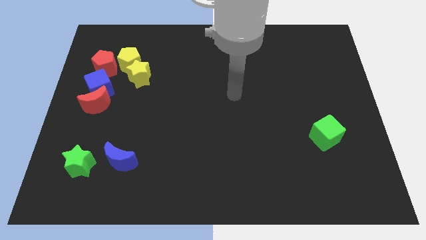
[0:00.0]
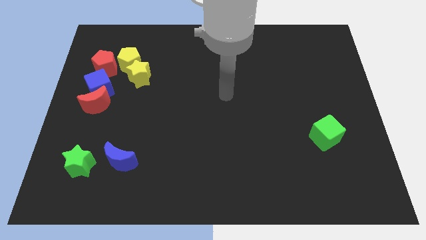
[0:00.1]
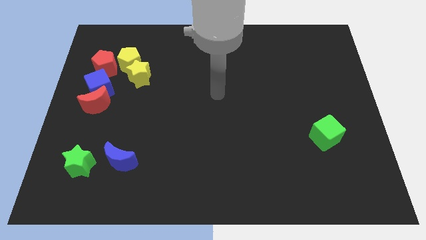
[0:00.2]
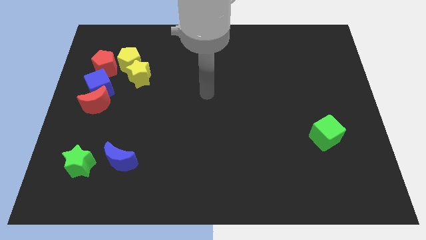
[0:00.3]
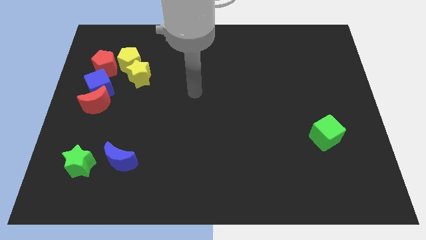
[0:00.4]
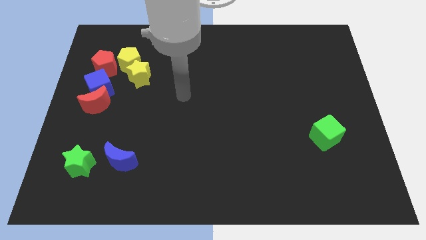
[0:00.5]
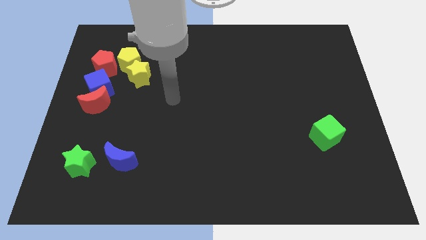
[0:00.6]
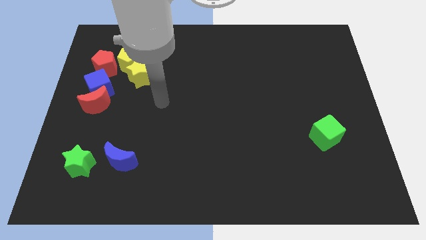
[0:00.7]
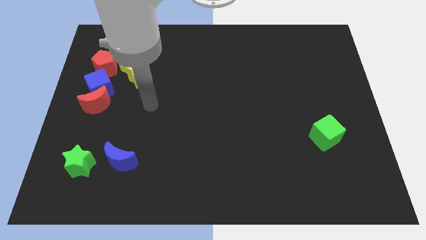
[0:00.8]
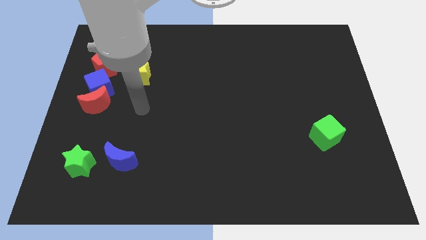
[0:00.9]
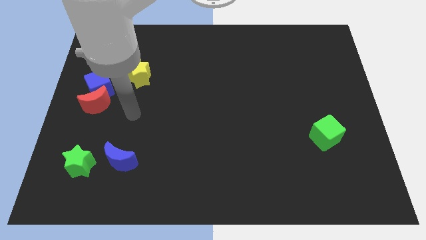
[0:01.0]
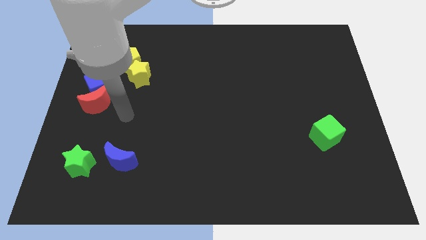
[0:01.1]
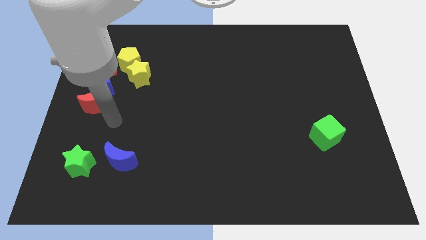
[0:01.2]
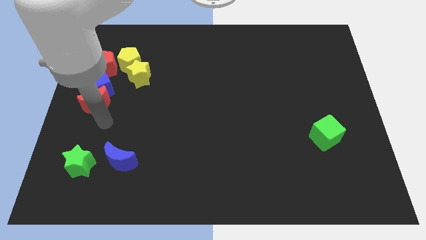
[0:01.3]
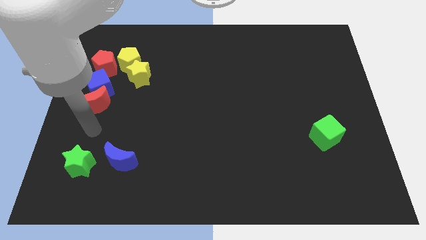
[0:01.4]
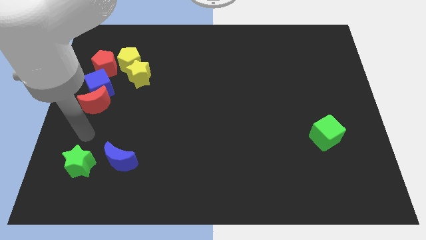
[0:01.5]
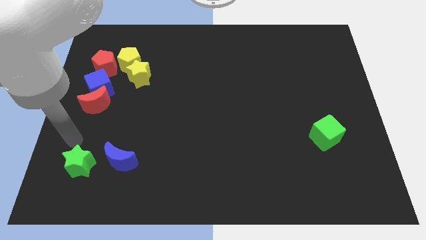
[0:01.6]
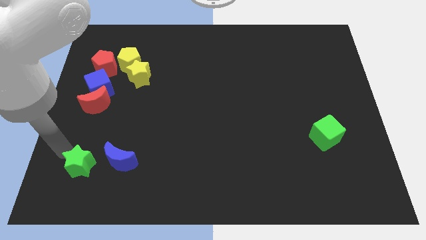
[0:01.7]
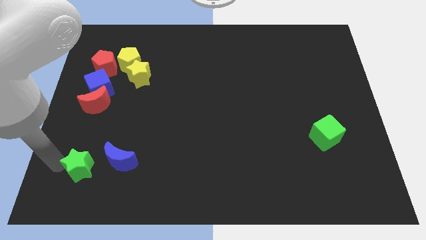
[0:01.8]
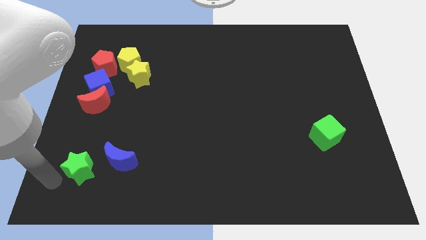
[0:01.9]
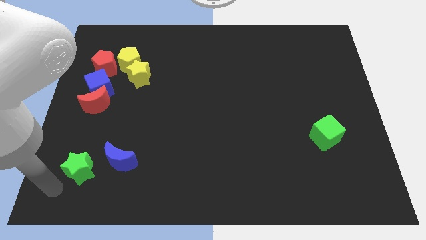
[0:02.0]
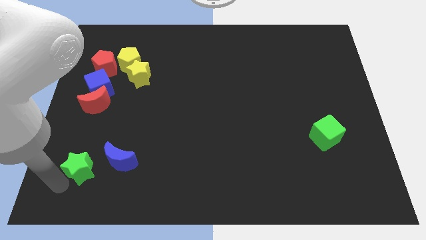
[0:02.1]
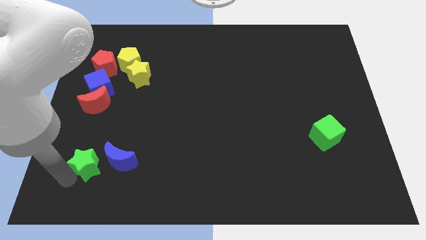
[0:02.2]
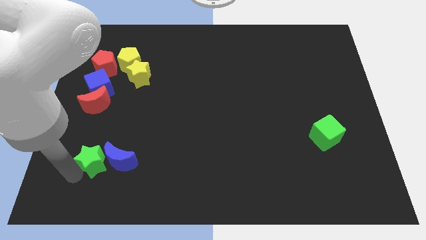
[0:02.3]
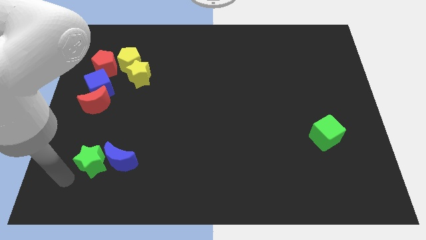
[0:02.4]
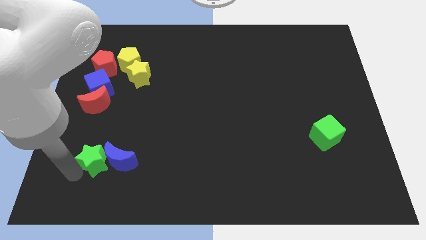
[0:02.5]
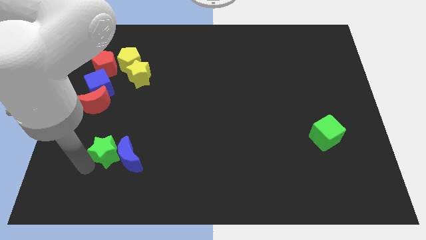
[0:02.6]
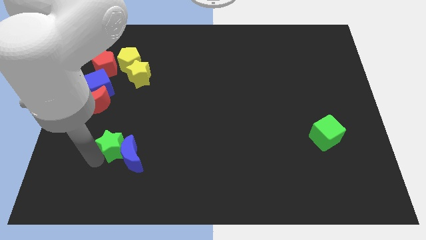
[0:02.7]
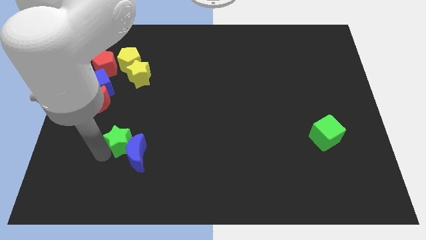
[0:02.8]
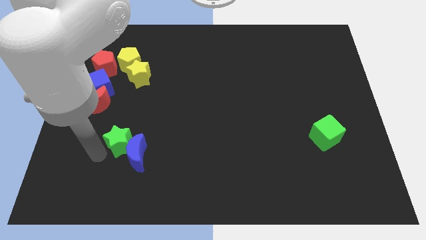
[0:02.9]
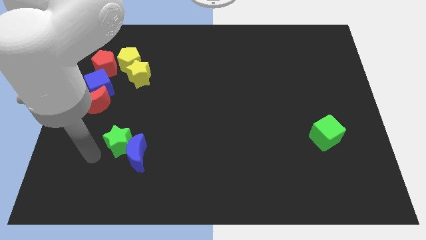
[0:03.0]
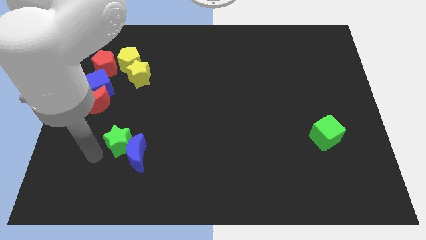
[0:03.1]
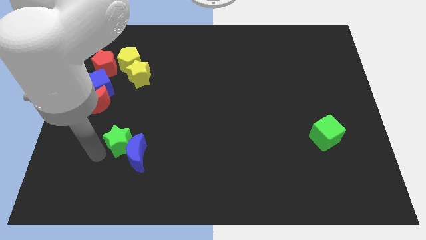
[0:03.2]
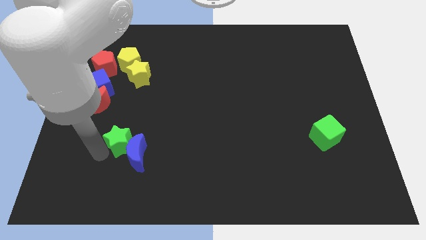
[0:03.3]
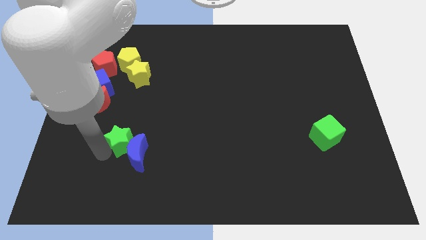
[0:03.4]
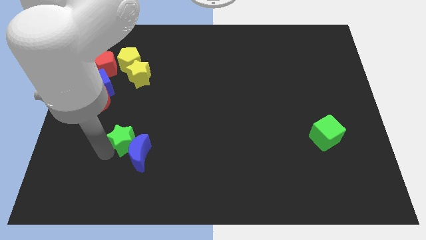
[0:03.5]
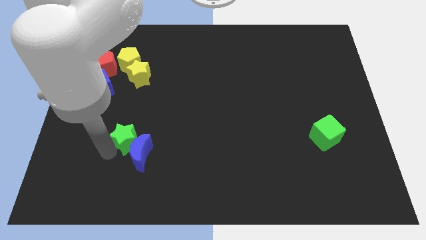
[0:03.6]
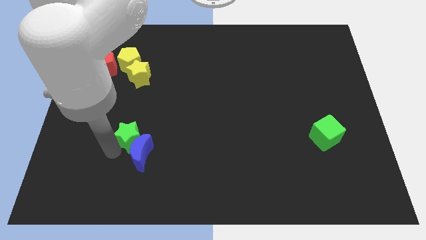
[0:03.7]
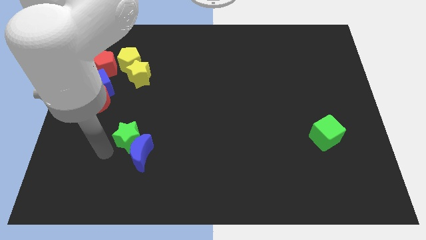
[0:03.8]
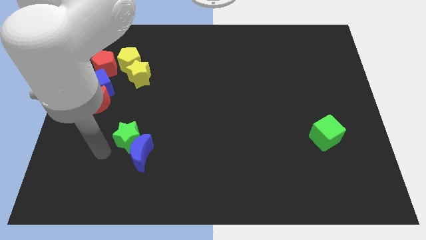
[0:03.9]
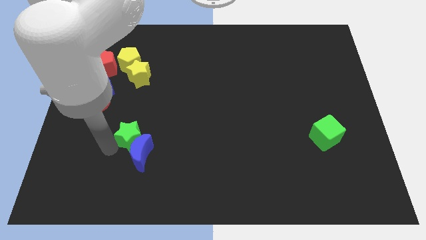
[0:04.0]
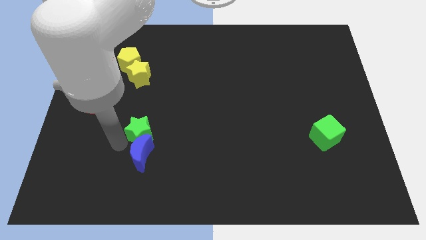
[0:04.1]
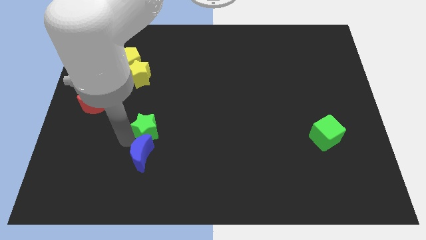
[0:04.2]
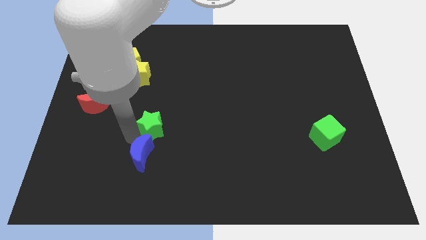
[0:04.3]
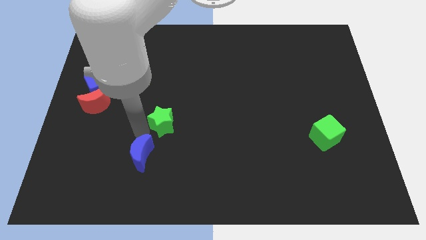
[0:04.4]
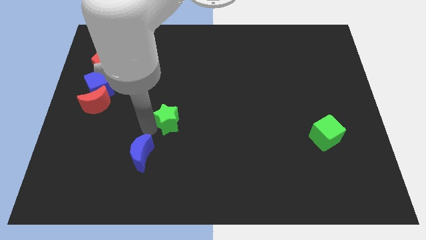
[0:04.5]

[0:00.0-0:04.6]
slide the green star to the center

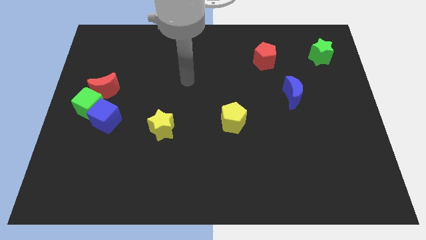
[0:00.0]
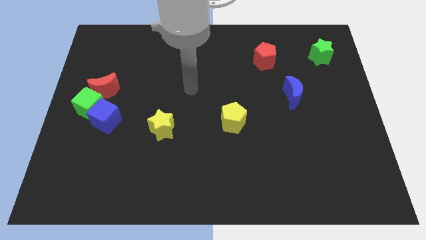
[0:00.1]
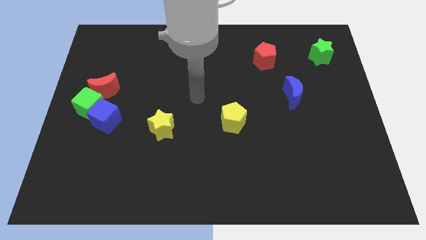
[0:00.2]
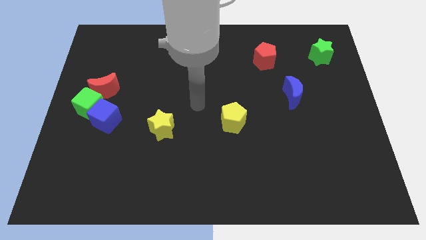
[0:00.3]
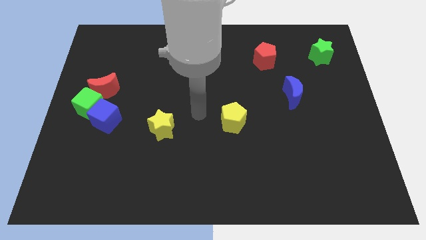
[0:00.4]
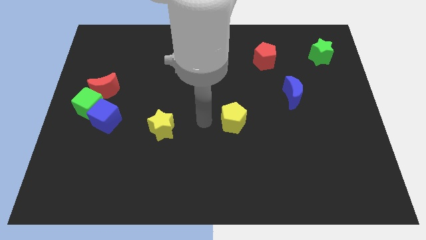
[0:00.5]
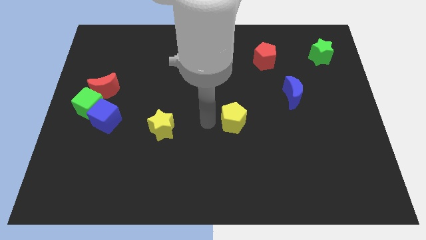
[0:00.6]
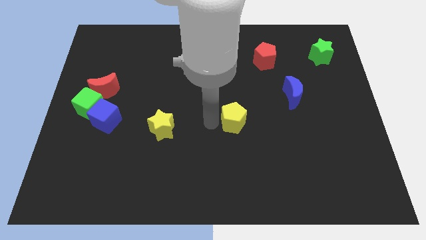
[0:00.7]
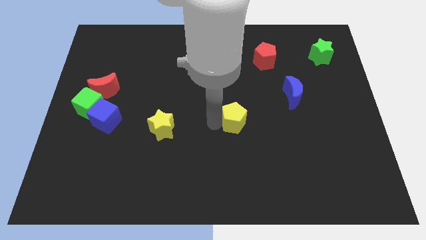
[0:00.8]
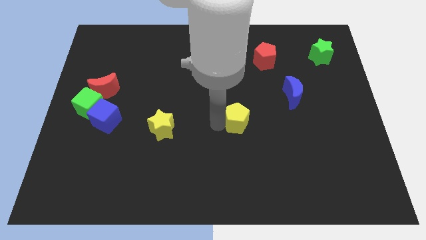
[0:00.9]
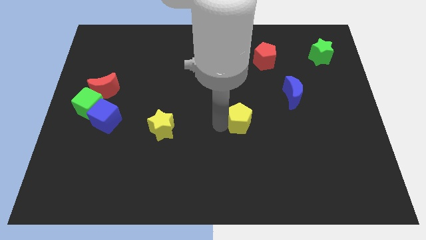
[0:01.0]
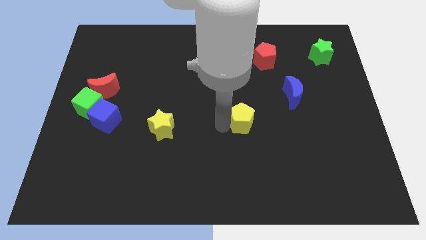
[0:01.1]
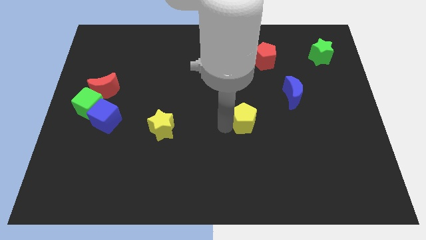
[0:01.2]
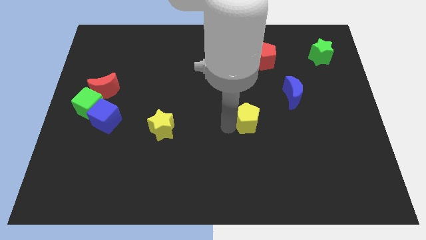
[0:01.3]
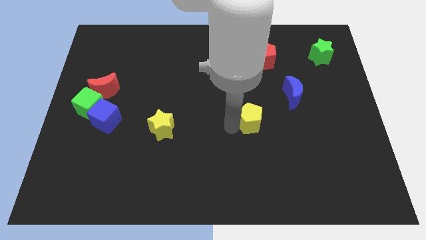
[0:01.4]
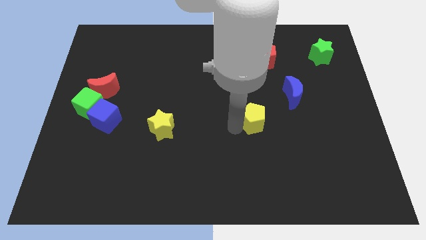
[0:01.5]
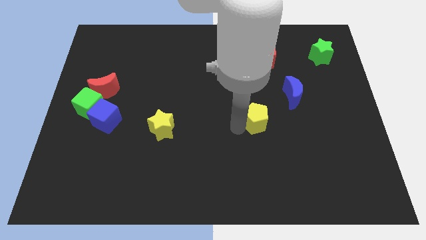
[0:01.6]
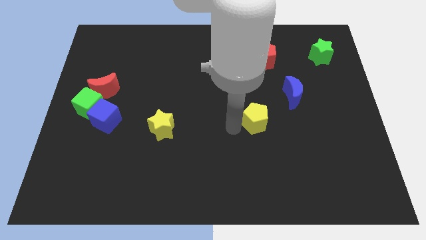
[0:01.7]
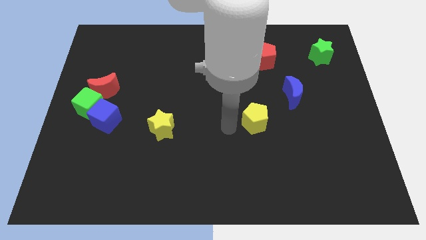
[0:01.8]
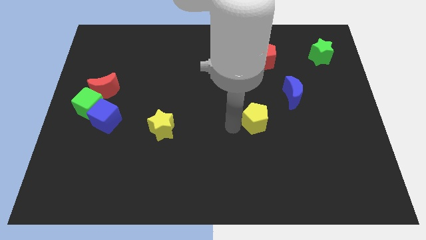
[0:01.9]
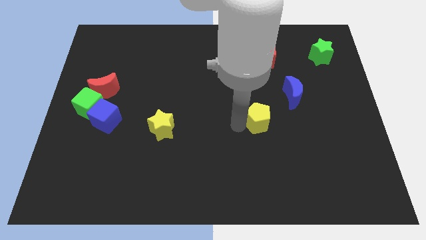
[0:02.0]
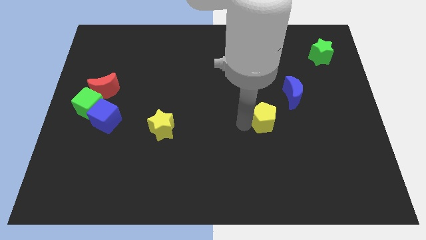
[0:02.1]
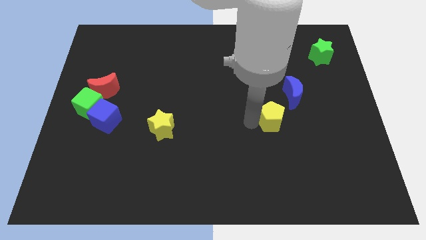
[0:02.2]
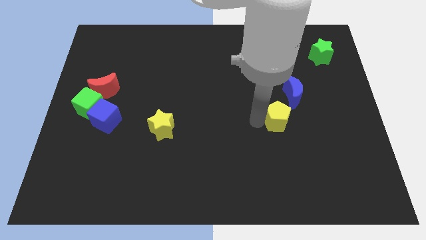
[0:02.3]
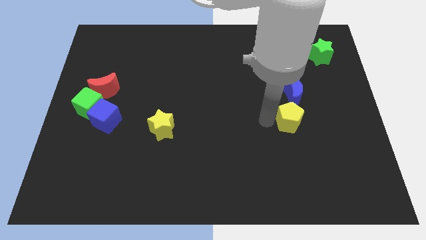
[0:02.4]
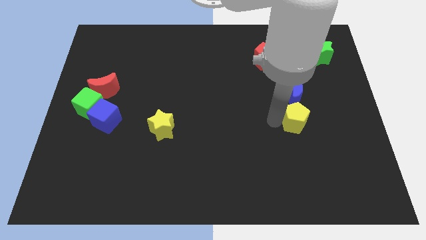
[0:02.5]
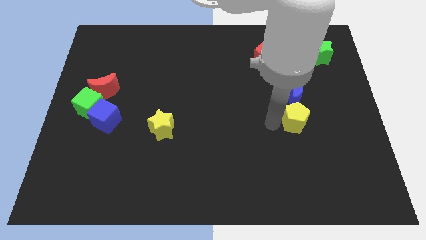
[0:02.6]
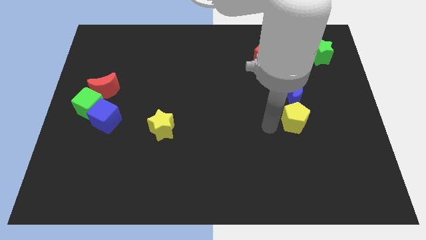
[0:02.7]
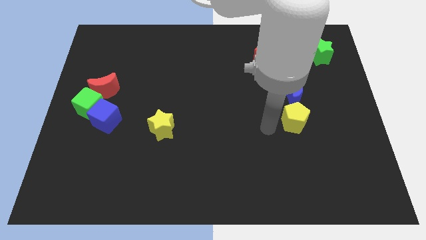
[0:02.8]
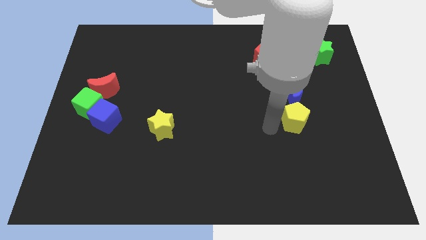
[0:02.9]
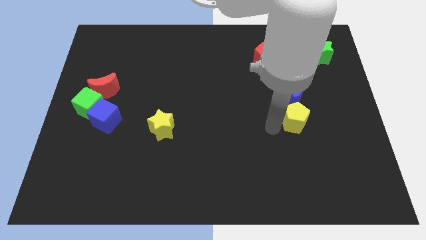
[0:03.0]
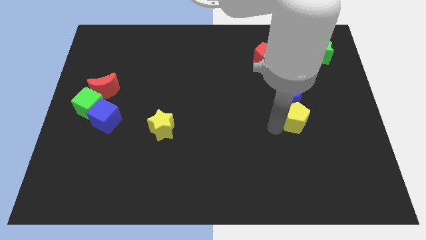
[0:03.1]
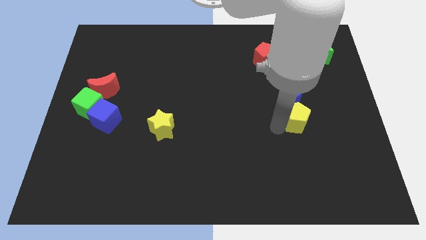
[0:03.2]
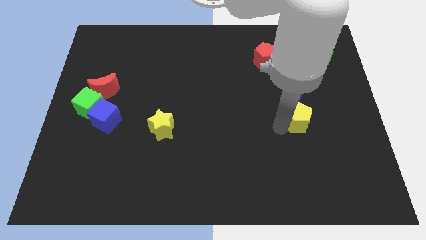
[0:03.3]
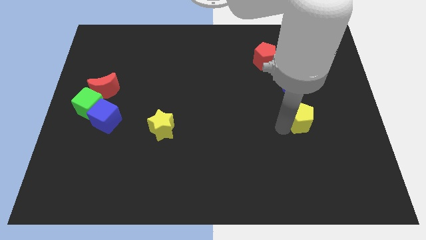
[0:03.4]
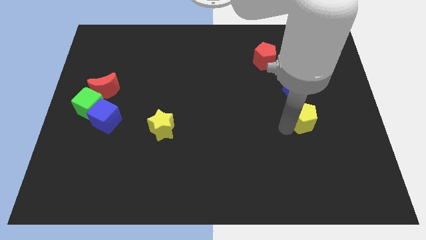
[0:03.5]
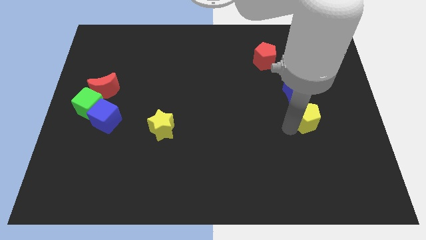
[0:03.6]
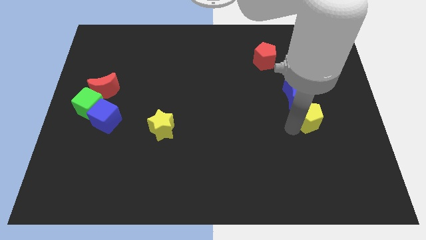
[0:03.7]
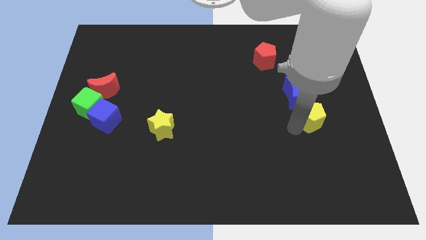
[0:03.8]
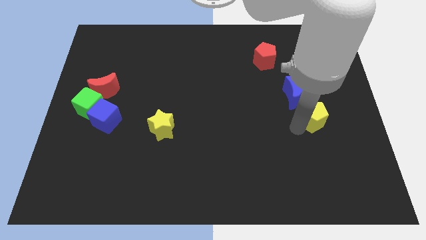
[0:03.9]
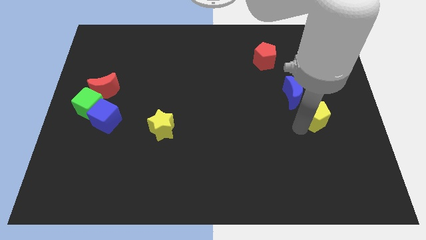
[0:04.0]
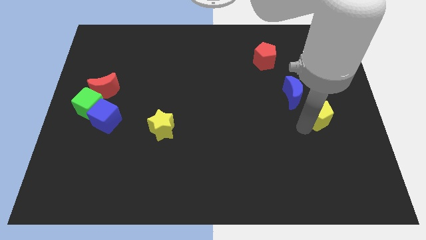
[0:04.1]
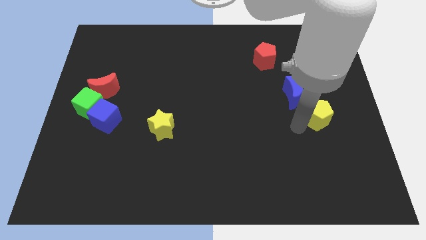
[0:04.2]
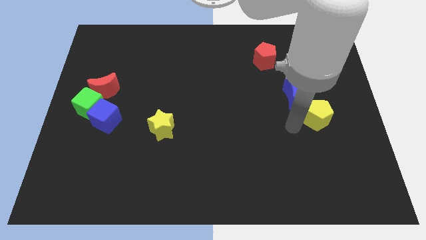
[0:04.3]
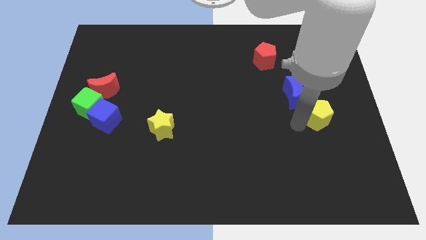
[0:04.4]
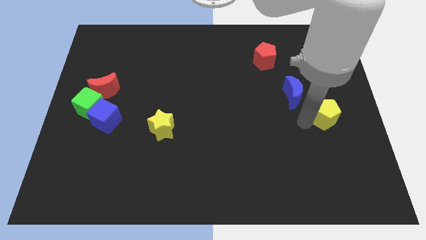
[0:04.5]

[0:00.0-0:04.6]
slide the yellow pentagon to the right side of the board
